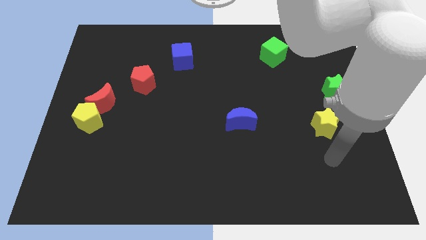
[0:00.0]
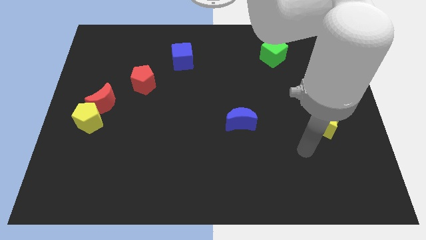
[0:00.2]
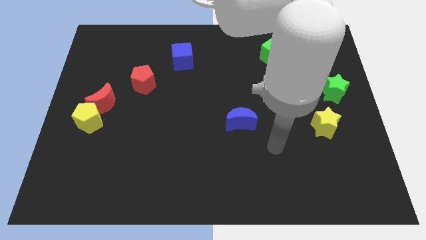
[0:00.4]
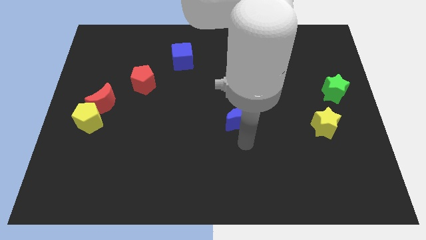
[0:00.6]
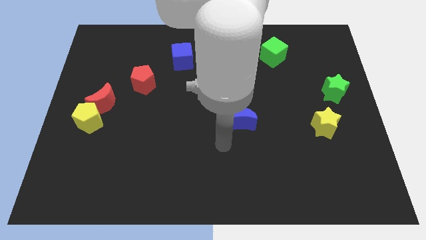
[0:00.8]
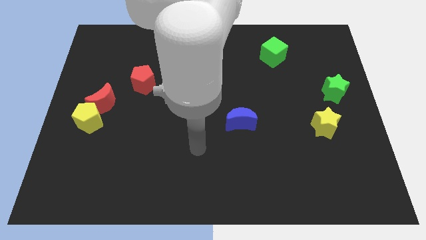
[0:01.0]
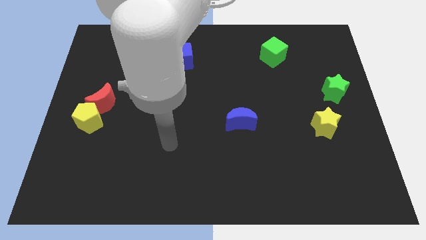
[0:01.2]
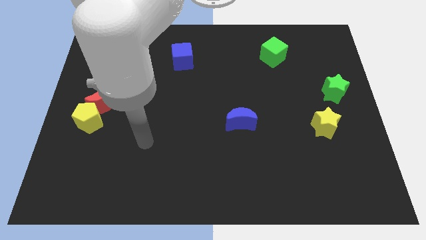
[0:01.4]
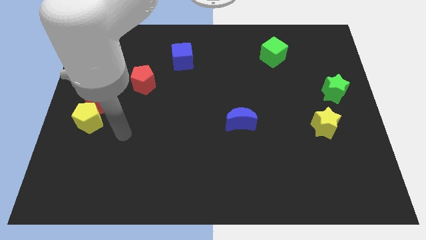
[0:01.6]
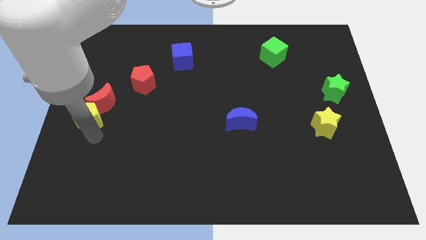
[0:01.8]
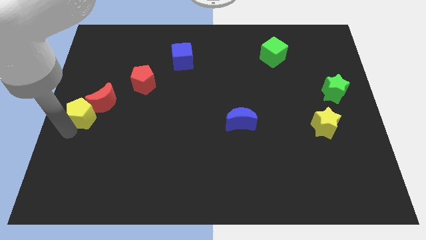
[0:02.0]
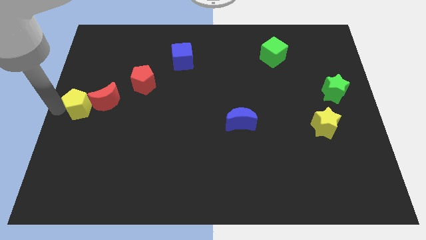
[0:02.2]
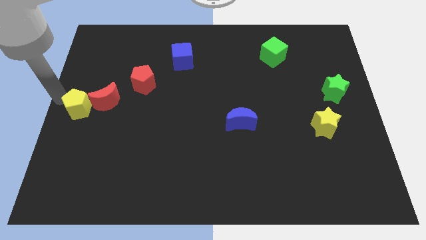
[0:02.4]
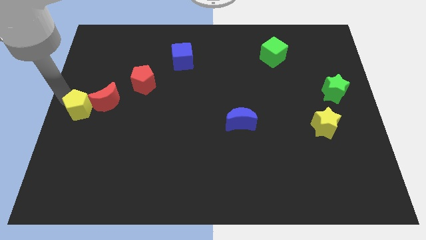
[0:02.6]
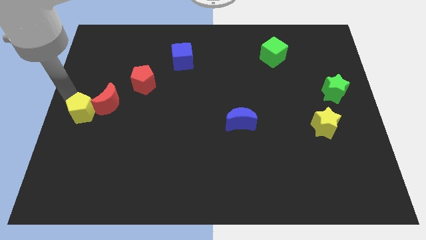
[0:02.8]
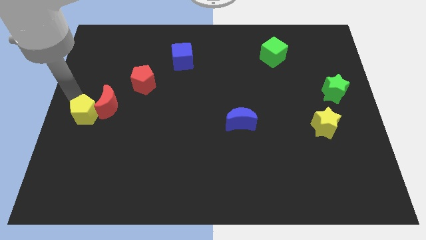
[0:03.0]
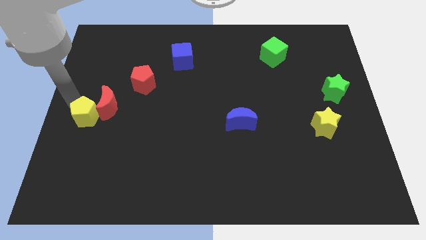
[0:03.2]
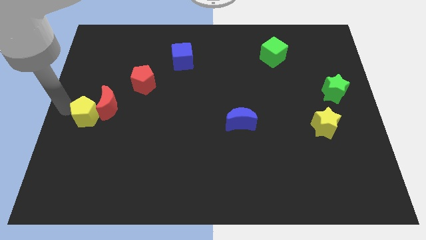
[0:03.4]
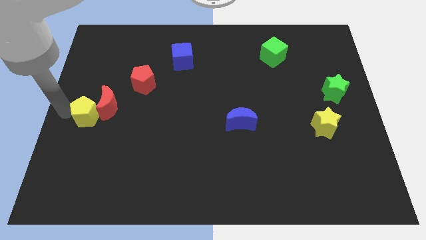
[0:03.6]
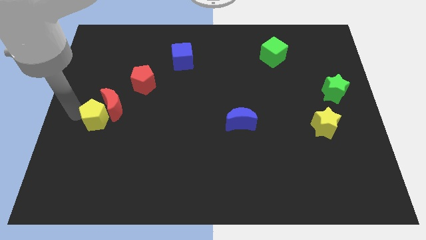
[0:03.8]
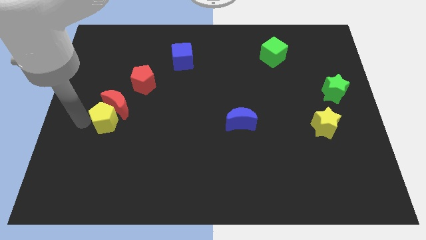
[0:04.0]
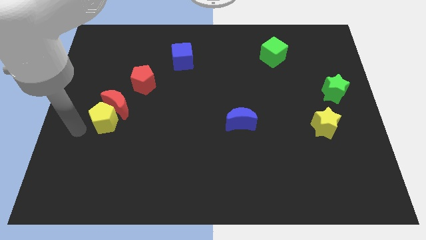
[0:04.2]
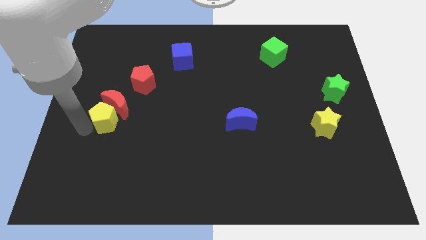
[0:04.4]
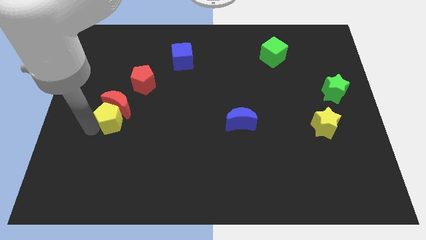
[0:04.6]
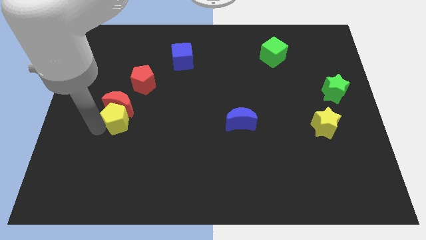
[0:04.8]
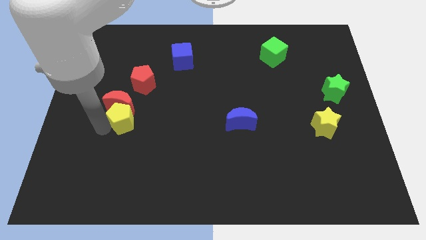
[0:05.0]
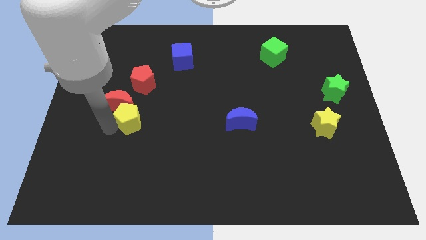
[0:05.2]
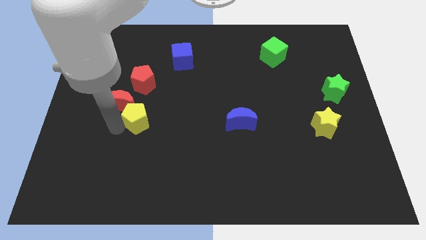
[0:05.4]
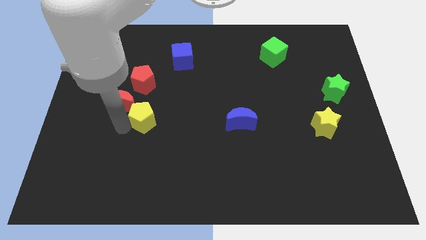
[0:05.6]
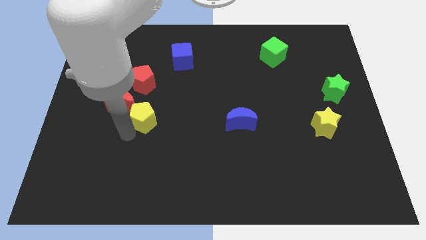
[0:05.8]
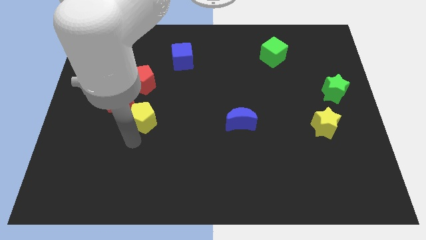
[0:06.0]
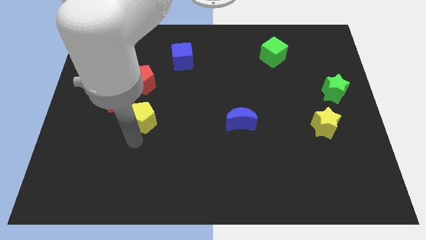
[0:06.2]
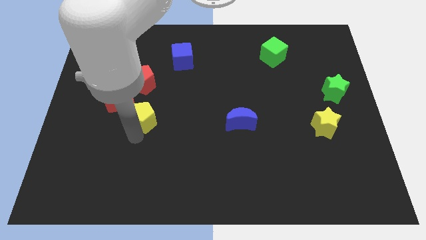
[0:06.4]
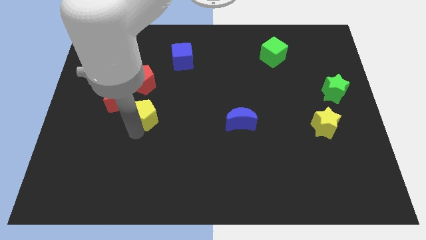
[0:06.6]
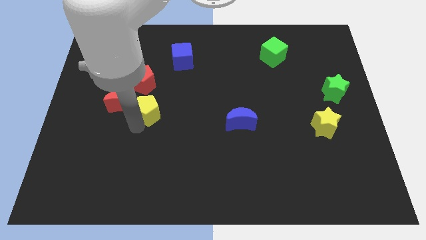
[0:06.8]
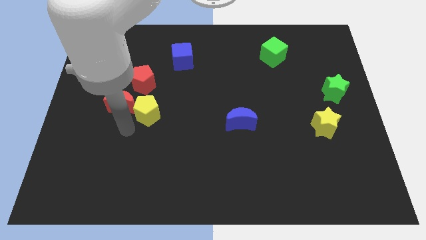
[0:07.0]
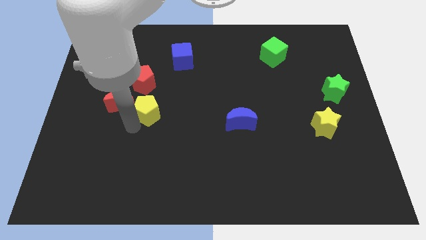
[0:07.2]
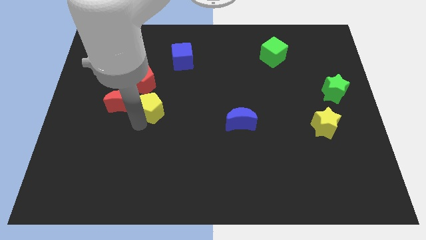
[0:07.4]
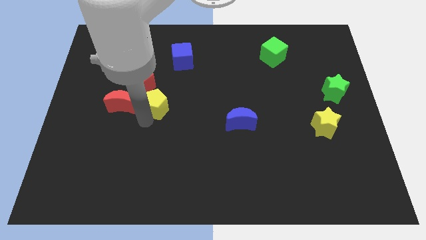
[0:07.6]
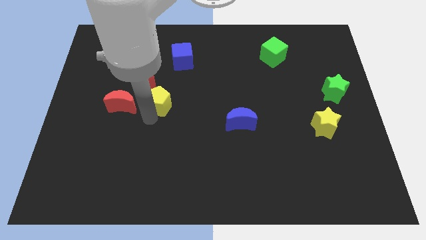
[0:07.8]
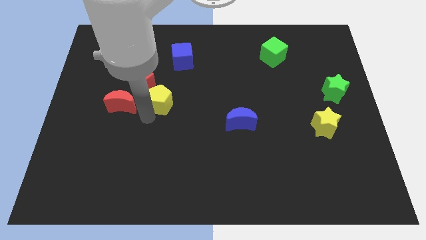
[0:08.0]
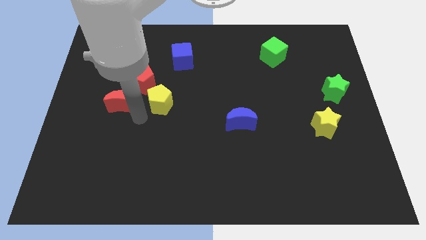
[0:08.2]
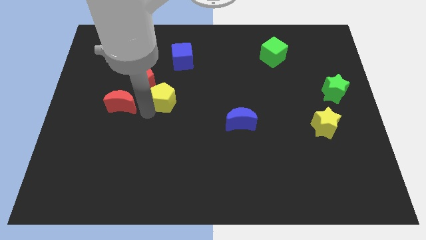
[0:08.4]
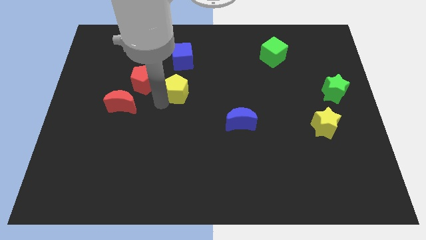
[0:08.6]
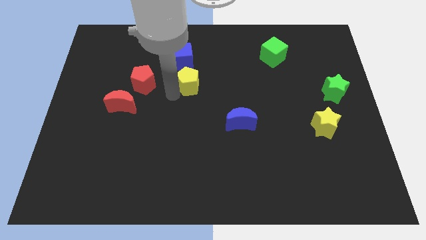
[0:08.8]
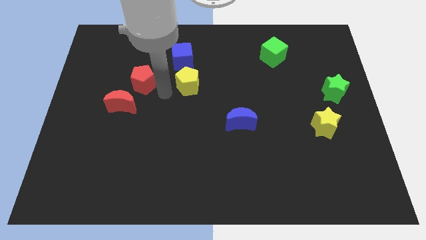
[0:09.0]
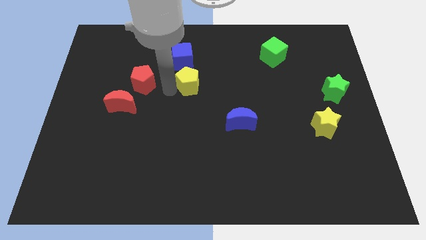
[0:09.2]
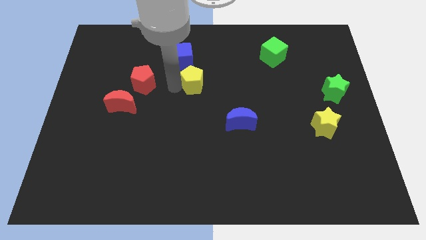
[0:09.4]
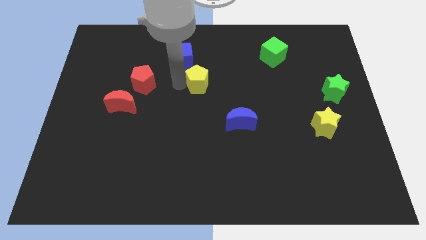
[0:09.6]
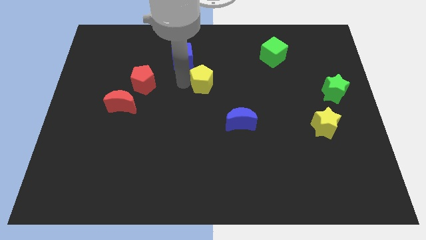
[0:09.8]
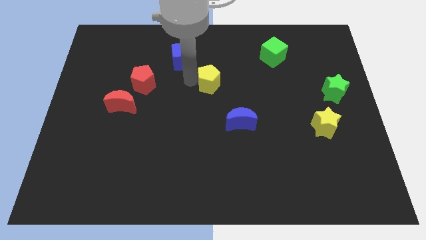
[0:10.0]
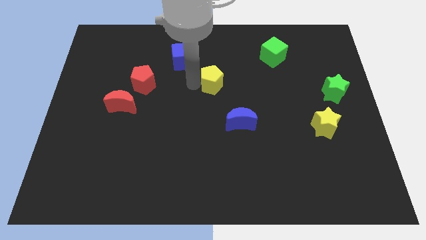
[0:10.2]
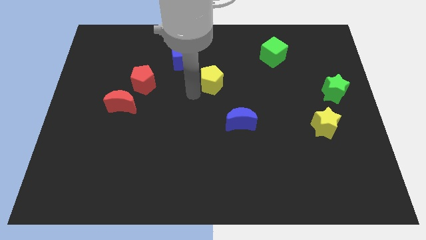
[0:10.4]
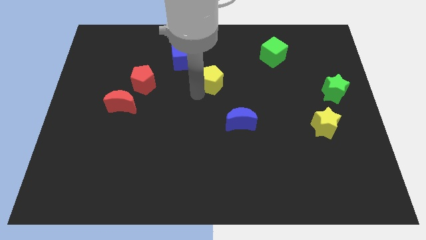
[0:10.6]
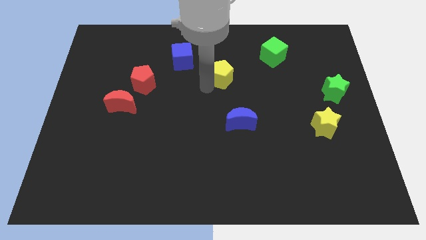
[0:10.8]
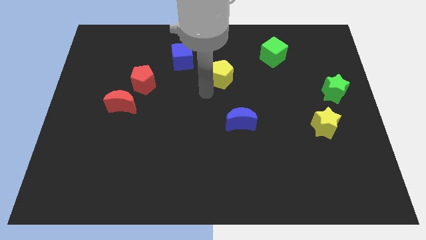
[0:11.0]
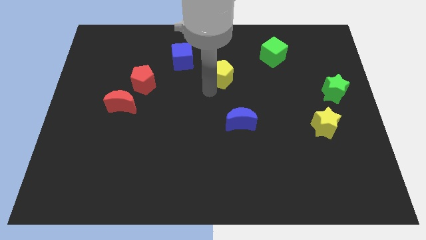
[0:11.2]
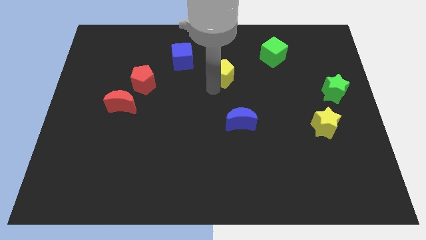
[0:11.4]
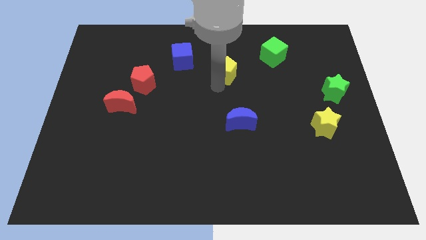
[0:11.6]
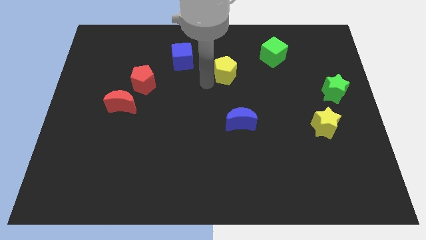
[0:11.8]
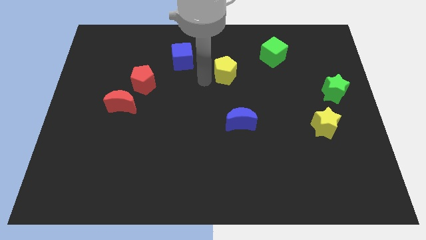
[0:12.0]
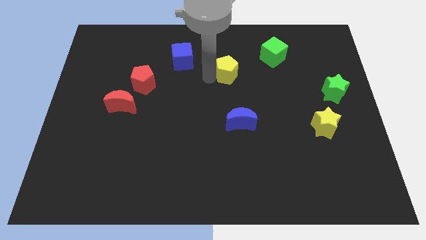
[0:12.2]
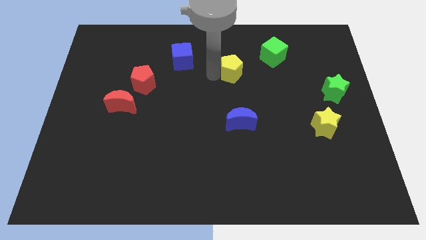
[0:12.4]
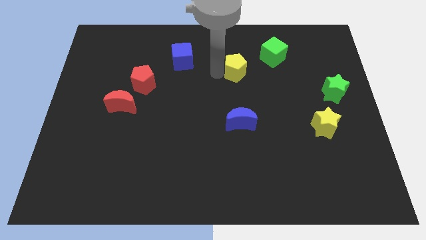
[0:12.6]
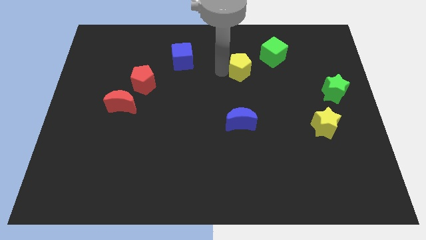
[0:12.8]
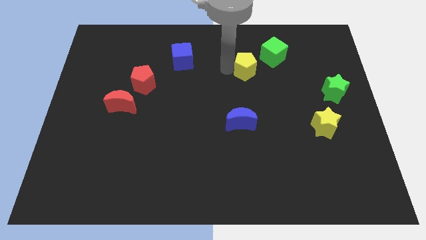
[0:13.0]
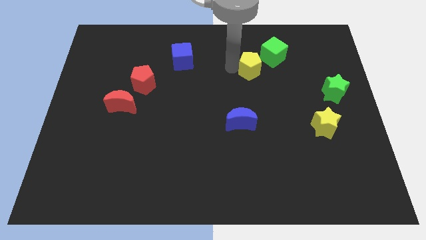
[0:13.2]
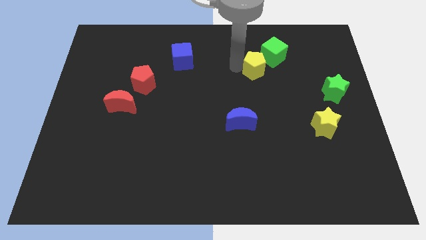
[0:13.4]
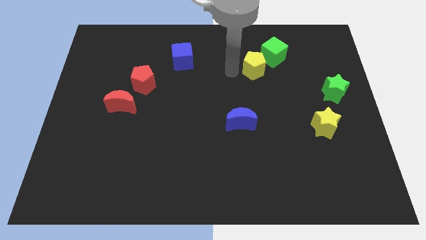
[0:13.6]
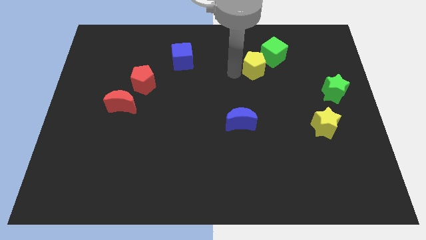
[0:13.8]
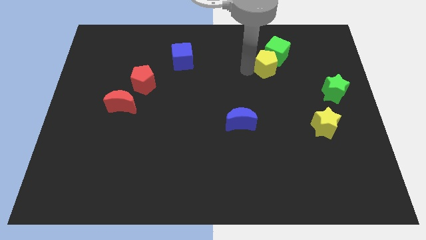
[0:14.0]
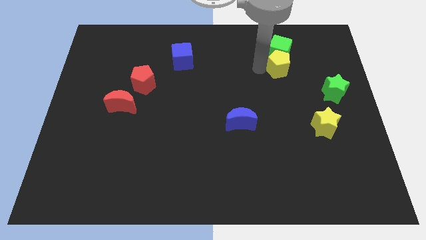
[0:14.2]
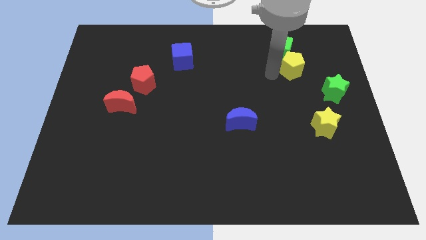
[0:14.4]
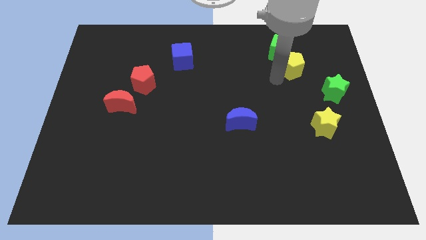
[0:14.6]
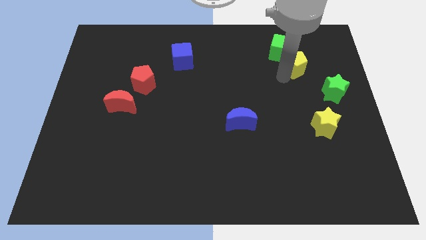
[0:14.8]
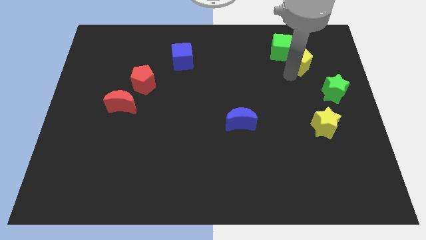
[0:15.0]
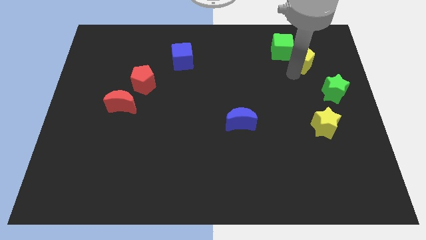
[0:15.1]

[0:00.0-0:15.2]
move the yellow pentagon to the right side of the green cube

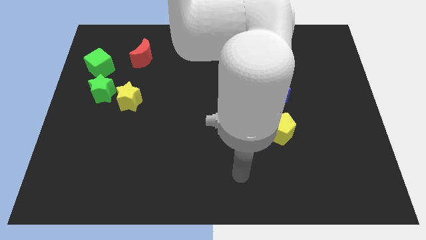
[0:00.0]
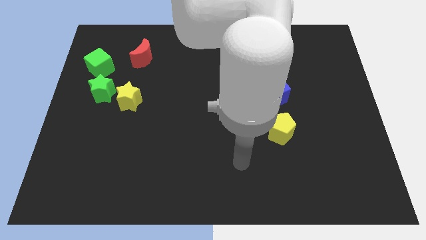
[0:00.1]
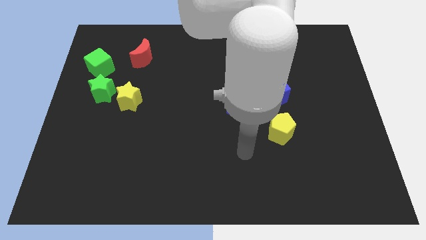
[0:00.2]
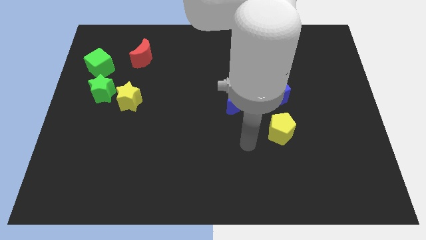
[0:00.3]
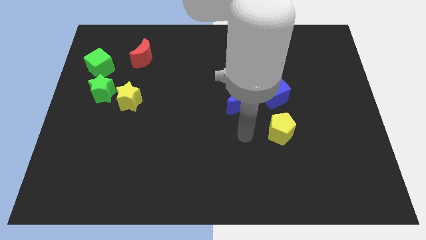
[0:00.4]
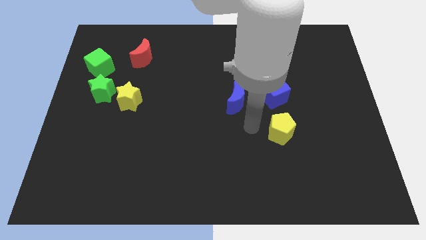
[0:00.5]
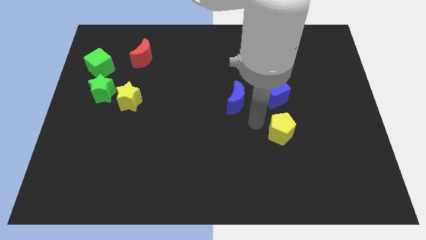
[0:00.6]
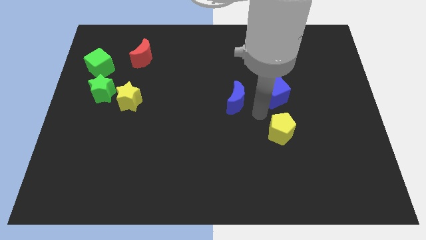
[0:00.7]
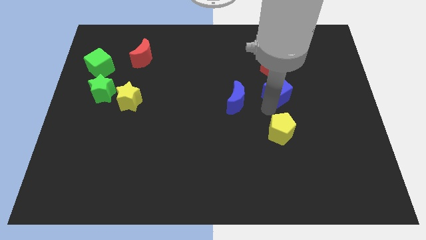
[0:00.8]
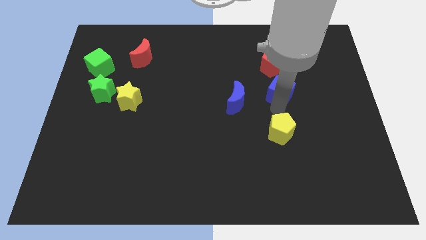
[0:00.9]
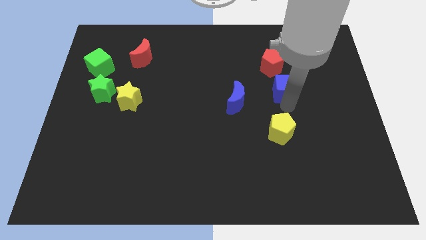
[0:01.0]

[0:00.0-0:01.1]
put the red pentagon diagonally up and to the left of the blue cube
